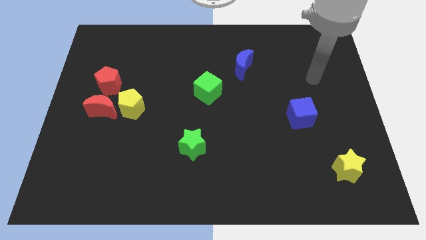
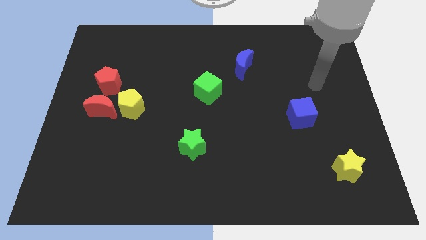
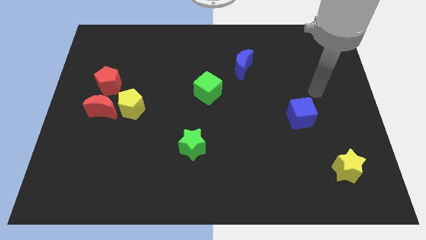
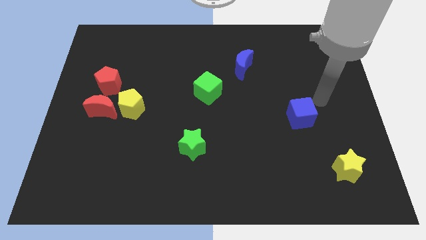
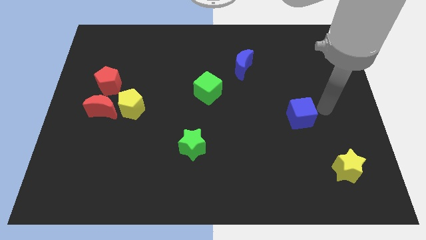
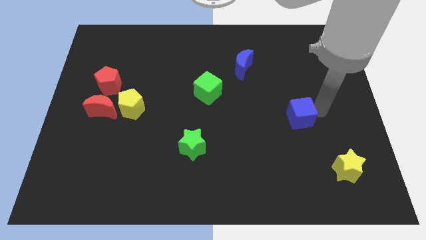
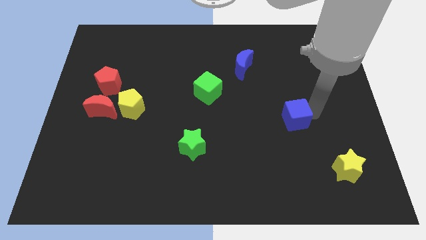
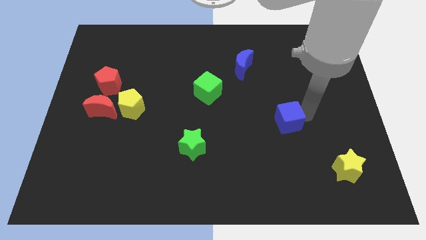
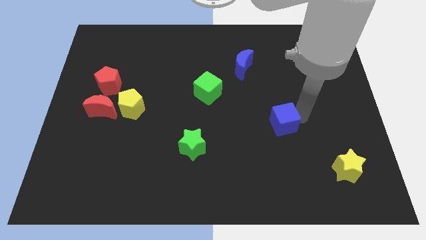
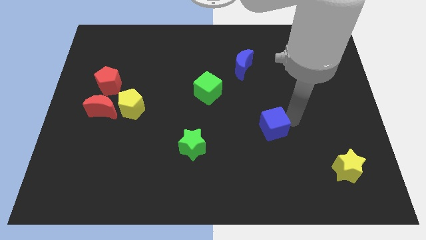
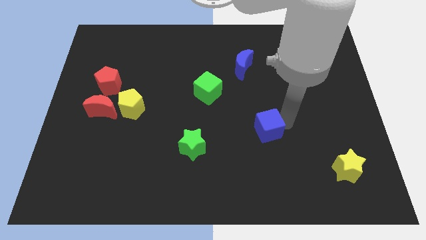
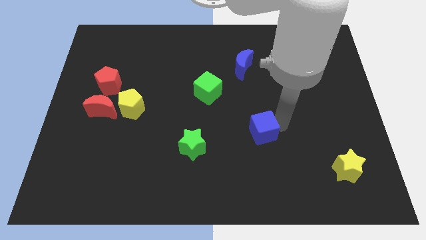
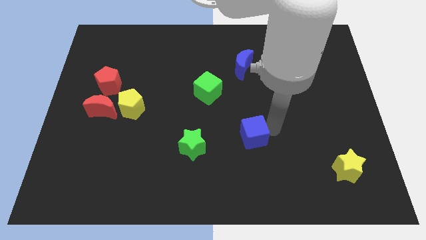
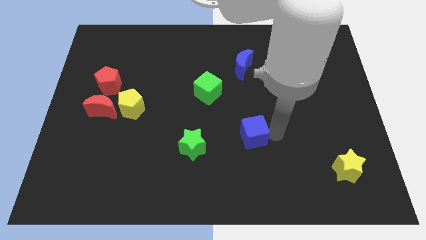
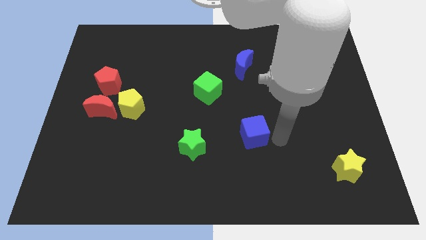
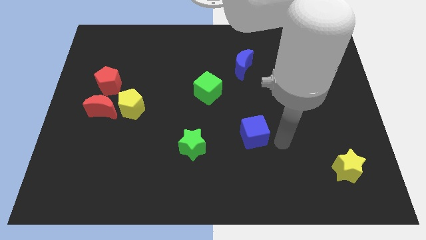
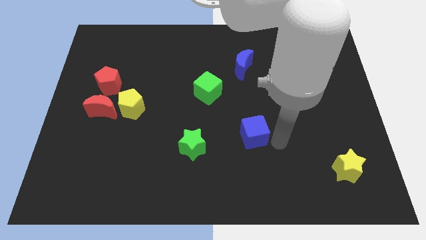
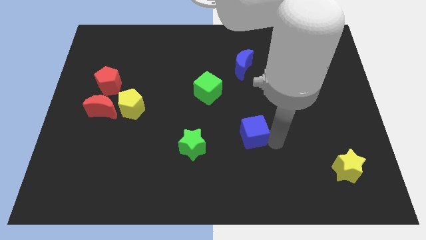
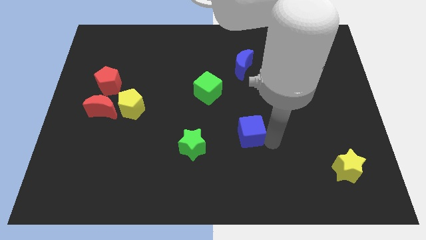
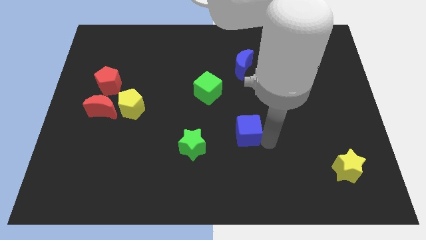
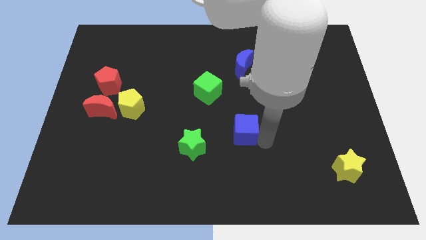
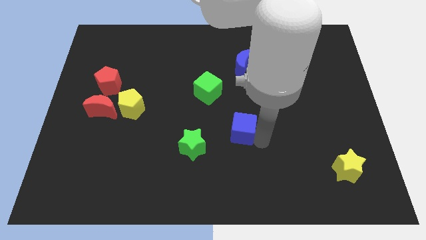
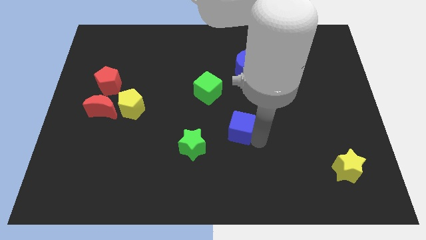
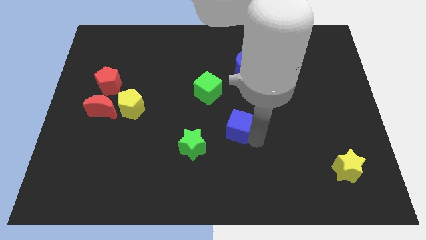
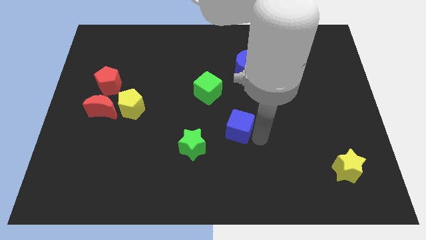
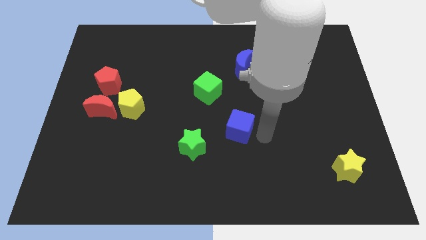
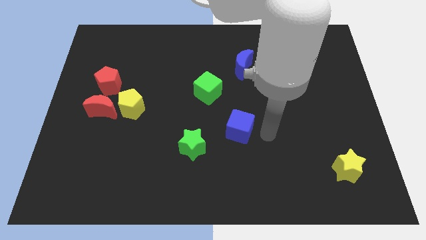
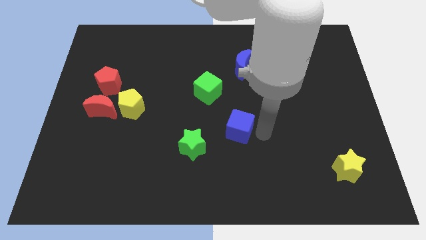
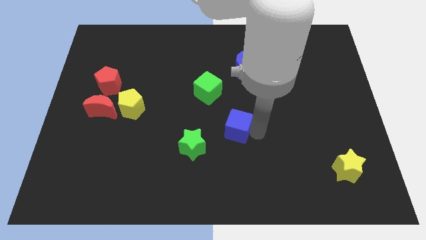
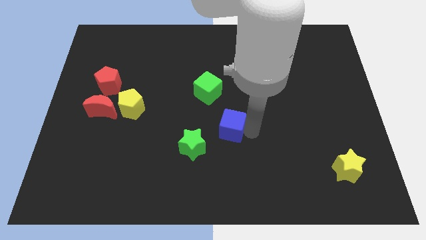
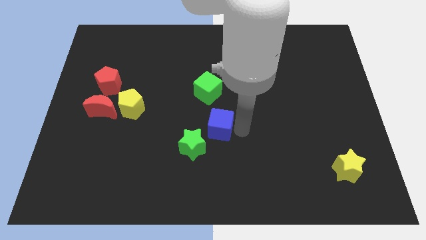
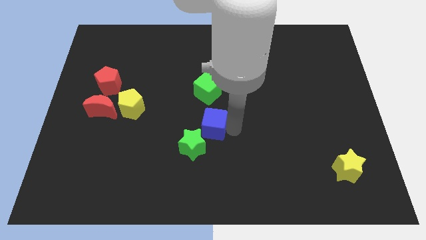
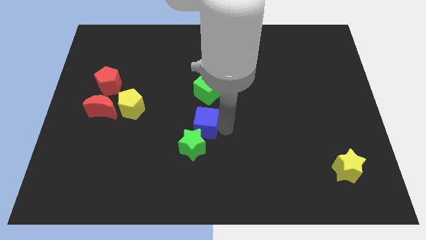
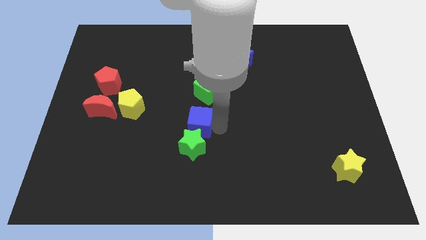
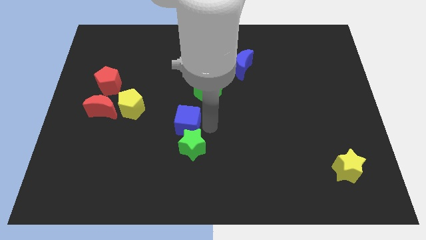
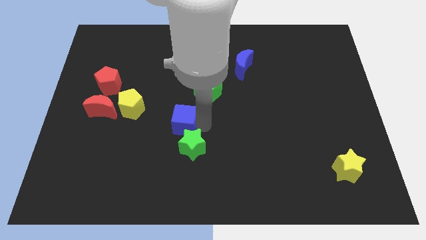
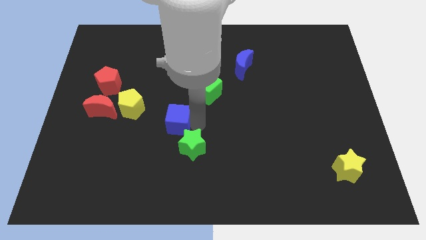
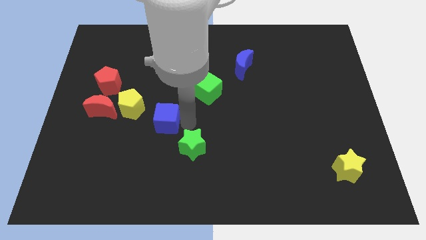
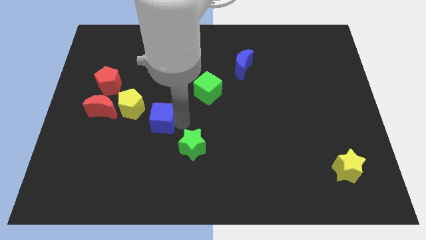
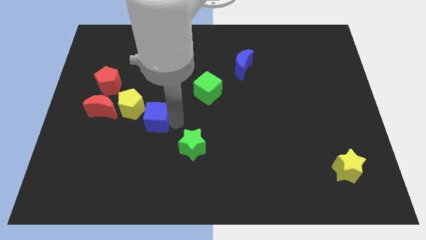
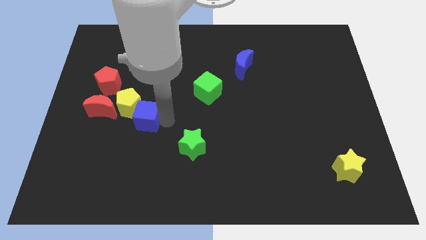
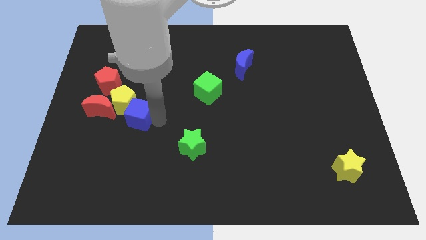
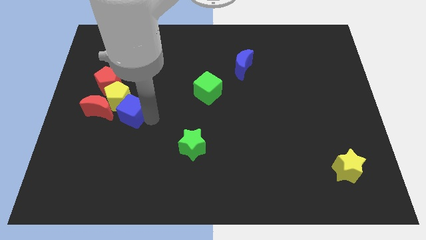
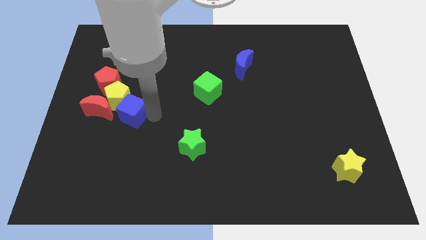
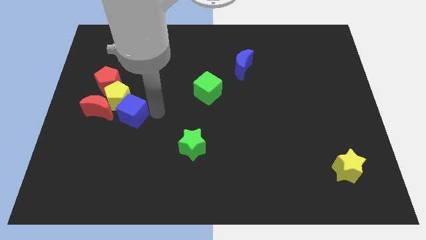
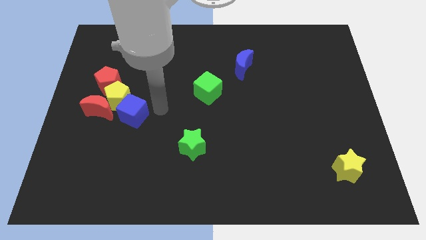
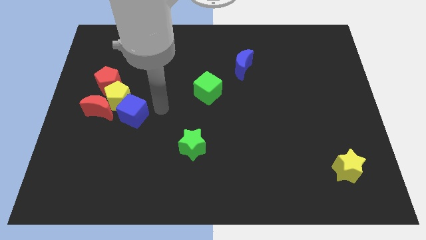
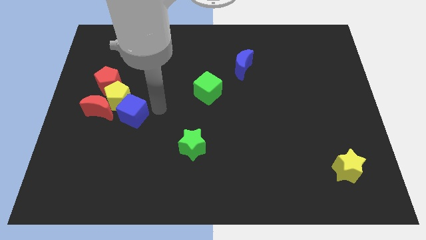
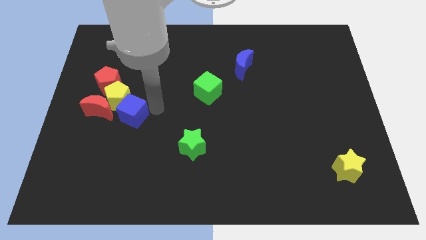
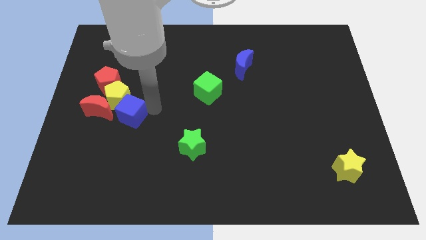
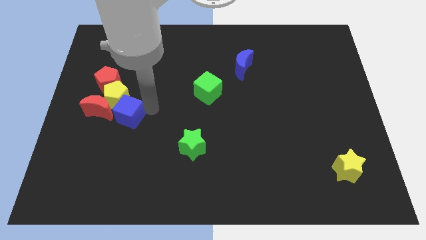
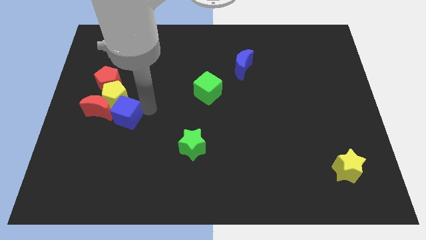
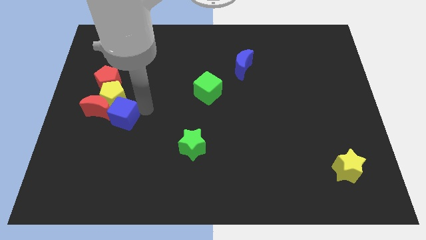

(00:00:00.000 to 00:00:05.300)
push the blue cube close to the red moon

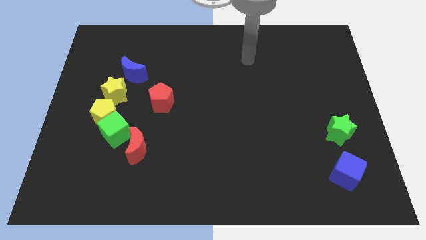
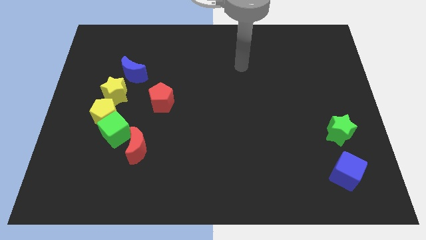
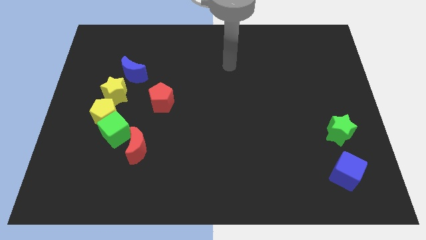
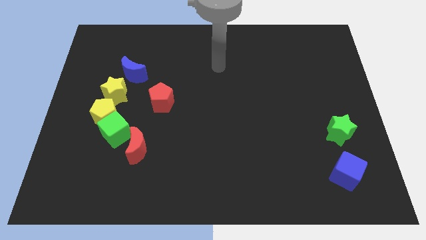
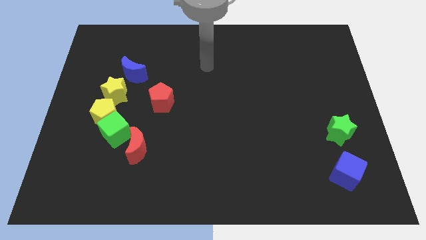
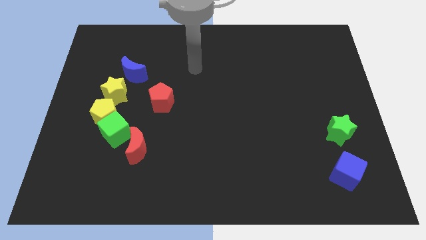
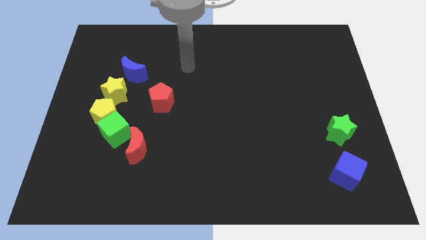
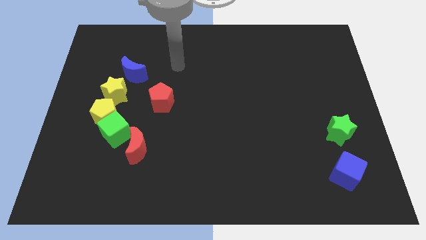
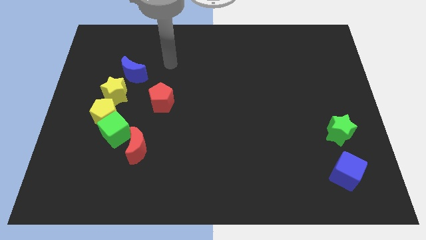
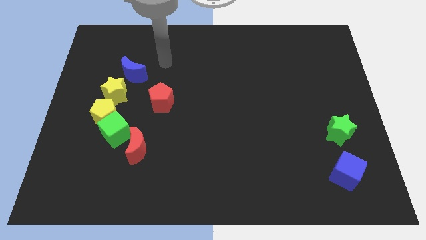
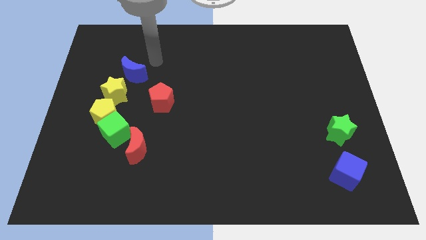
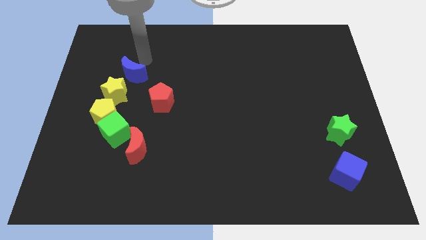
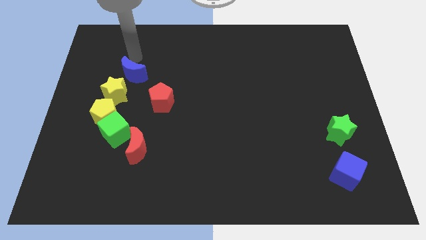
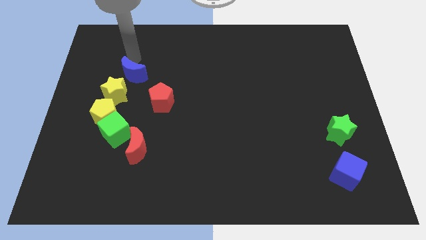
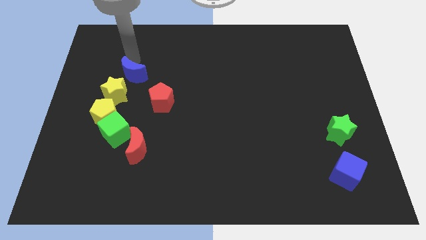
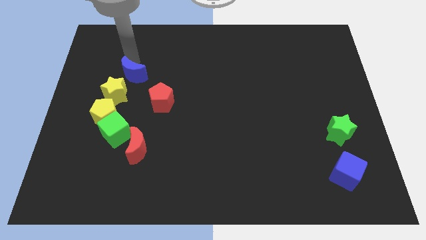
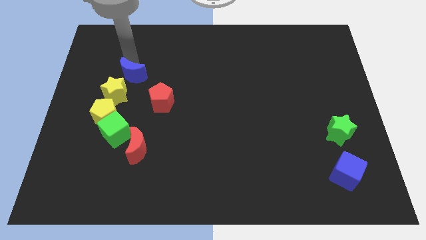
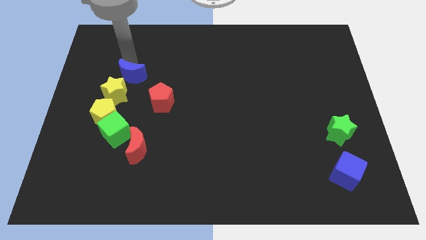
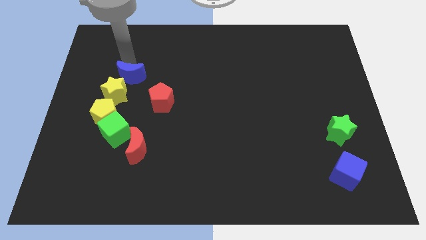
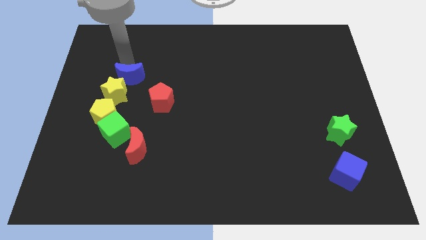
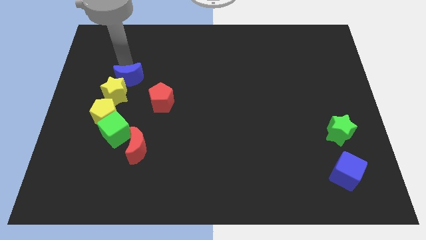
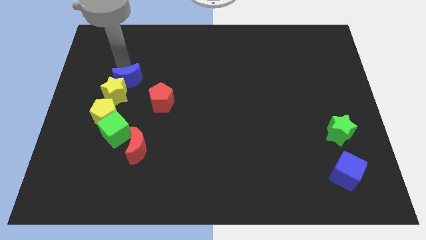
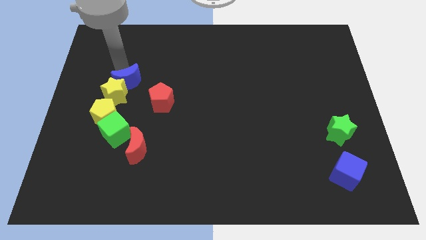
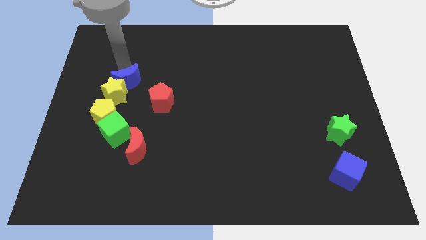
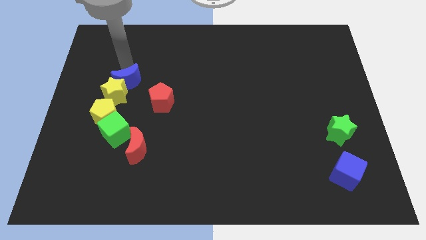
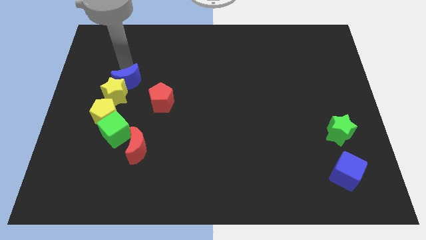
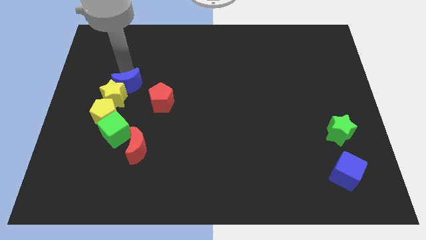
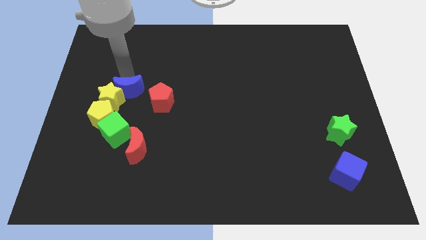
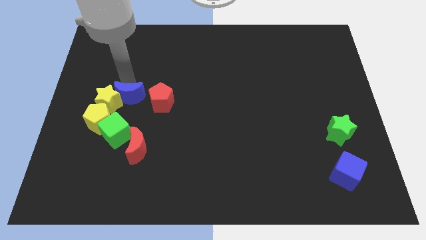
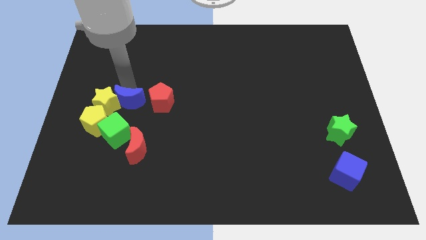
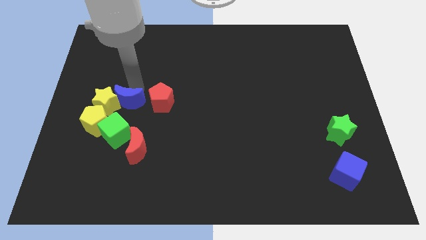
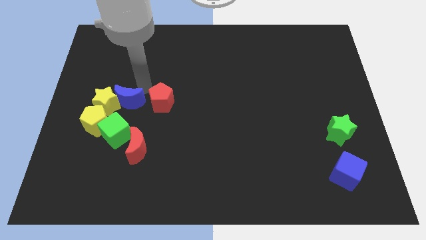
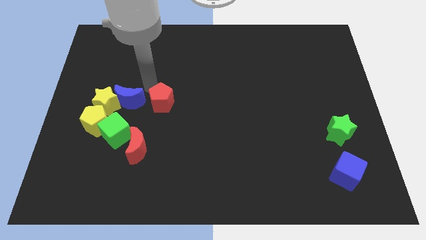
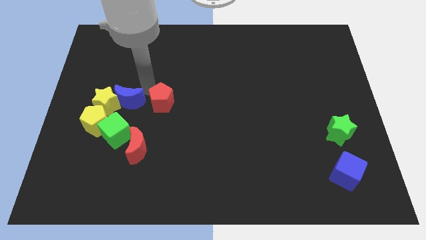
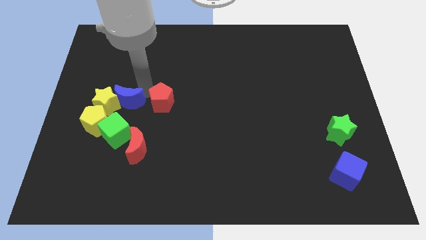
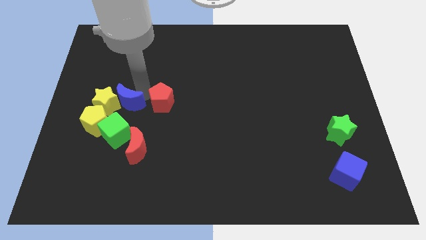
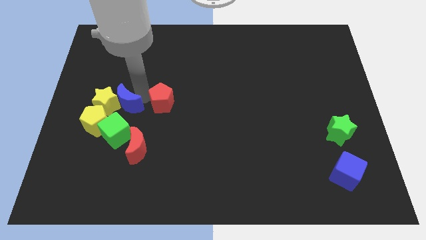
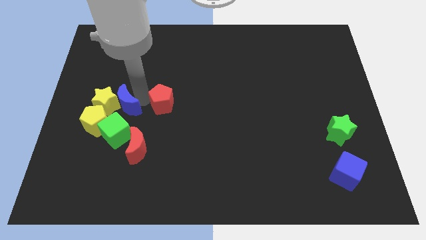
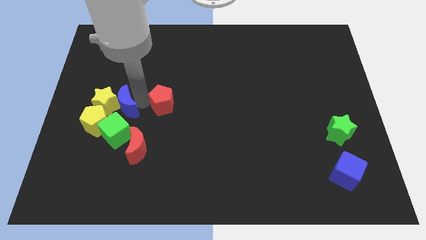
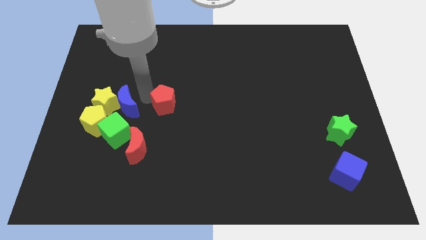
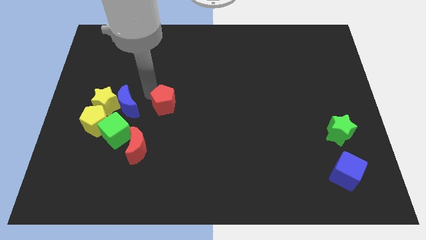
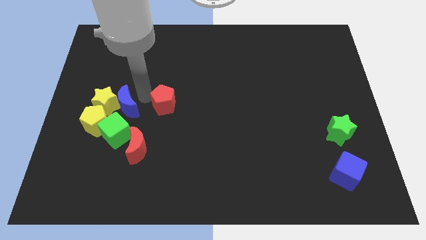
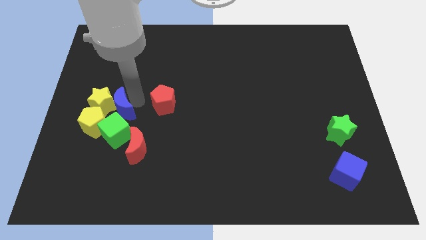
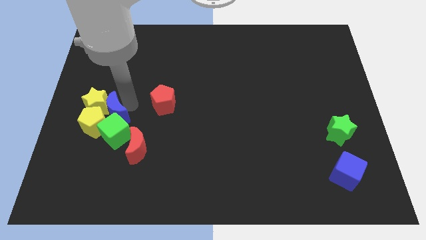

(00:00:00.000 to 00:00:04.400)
push the blue moon towards the yellow pentagon
